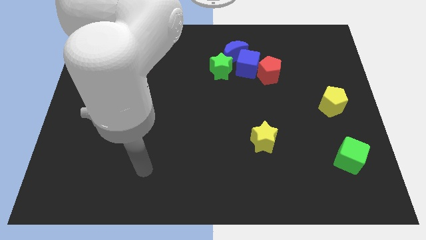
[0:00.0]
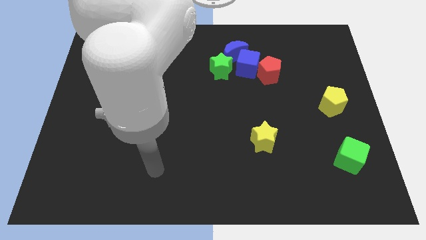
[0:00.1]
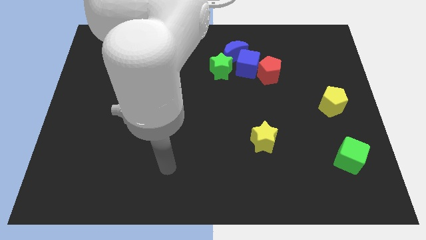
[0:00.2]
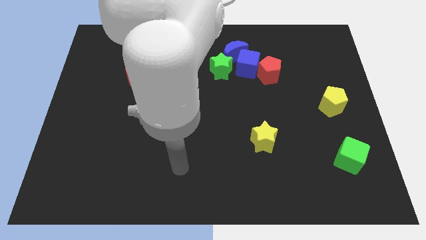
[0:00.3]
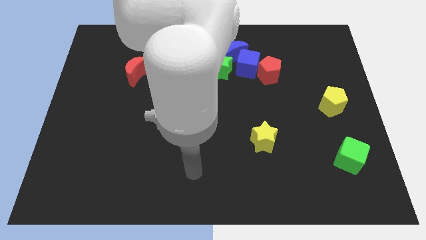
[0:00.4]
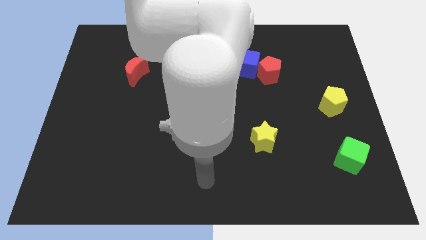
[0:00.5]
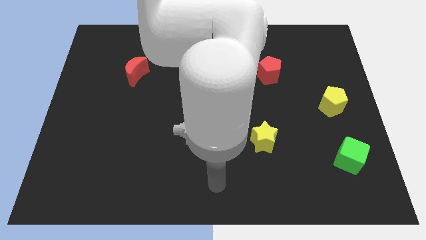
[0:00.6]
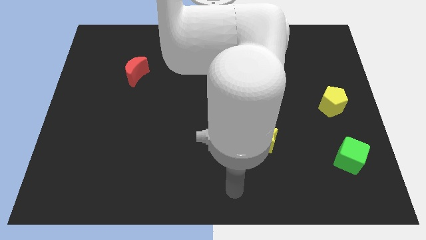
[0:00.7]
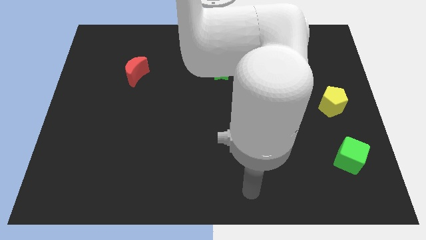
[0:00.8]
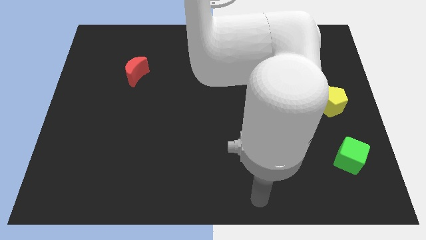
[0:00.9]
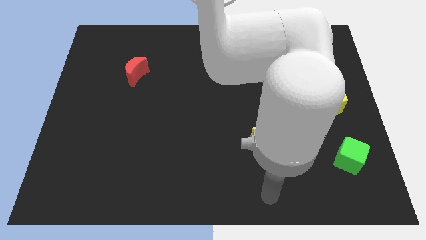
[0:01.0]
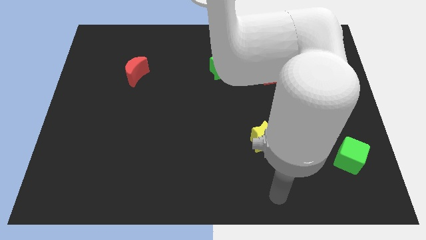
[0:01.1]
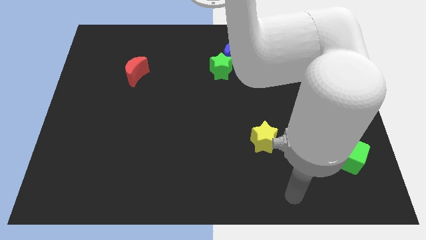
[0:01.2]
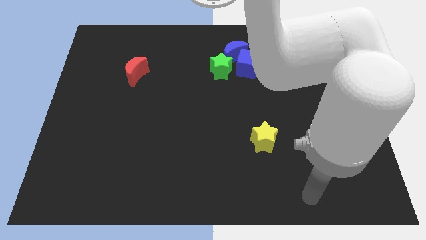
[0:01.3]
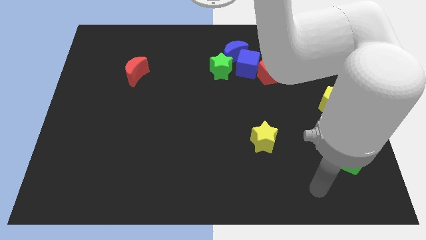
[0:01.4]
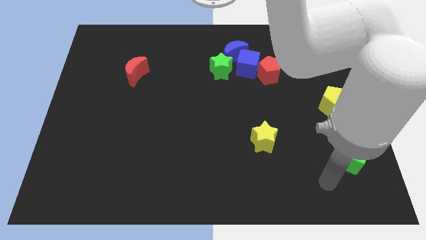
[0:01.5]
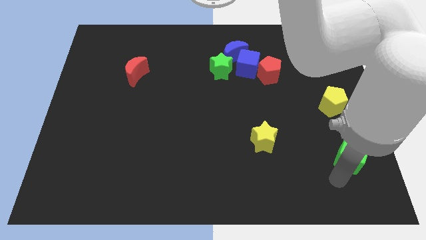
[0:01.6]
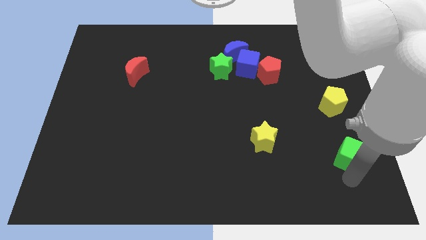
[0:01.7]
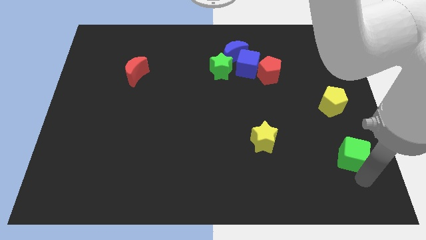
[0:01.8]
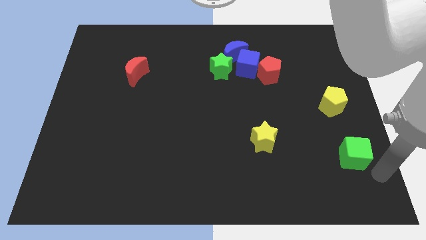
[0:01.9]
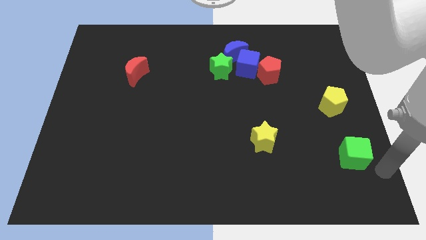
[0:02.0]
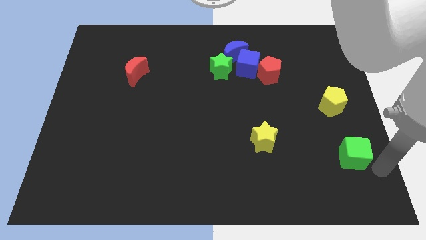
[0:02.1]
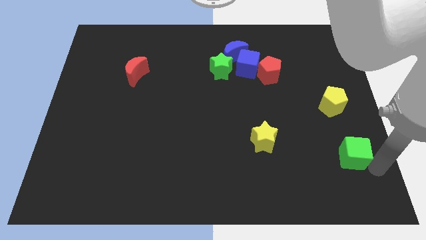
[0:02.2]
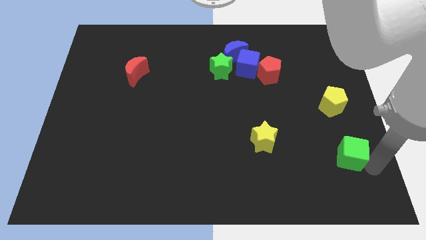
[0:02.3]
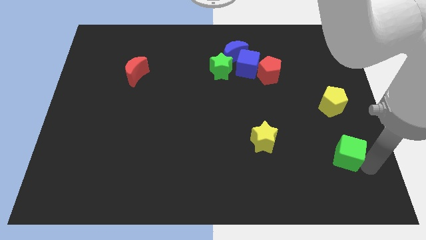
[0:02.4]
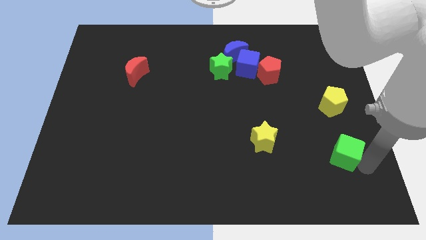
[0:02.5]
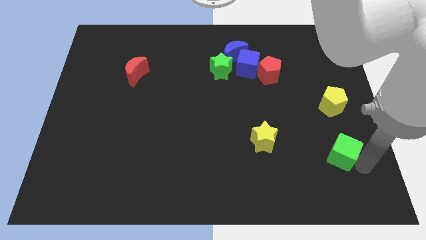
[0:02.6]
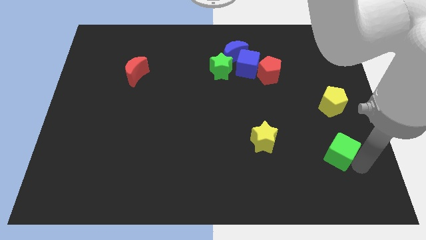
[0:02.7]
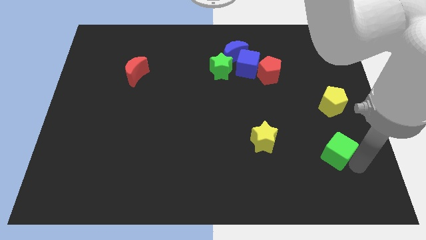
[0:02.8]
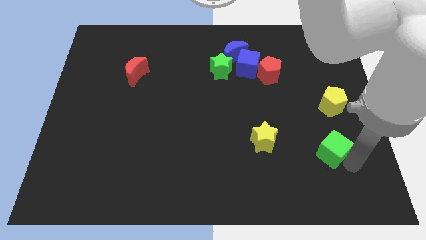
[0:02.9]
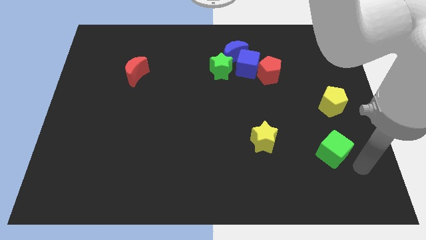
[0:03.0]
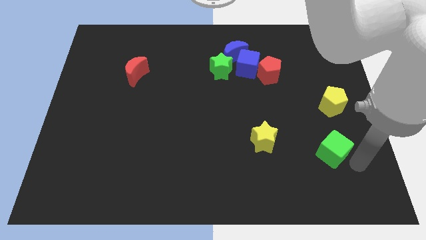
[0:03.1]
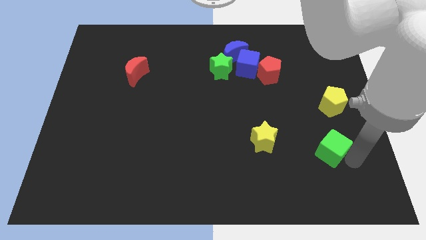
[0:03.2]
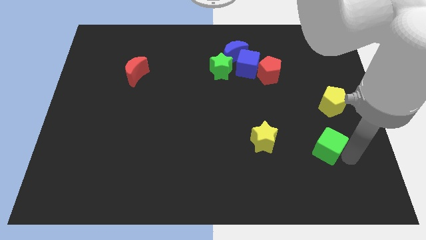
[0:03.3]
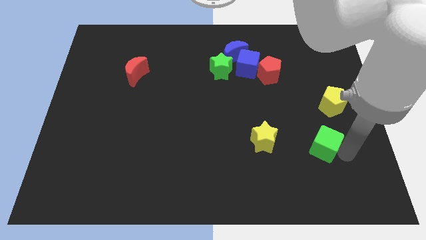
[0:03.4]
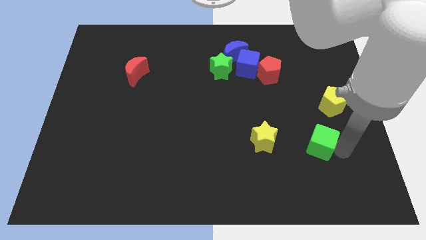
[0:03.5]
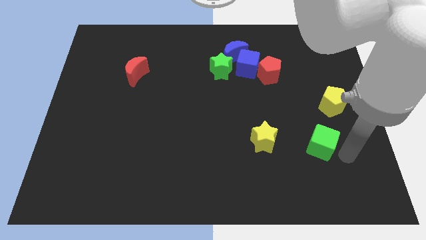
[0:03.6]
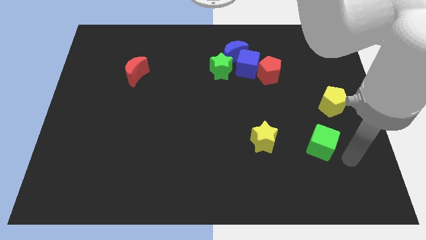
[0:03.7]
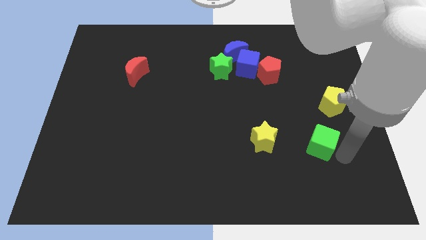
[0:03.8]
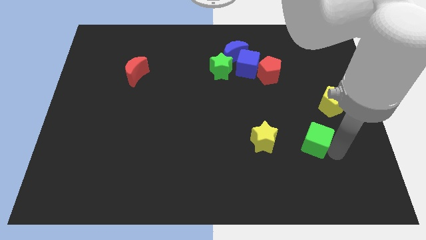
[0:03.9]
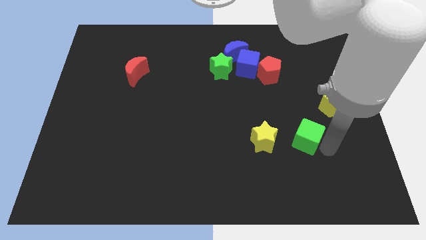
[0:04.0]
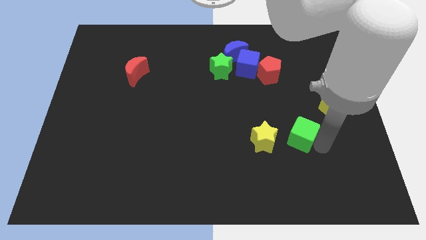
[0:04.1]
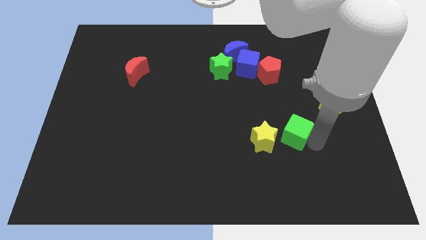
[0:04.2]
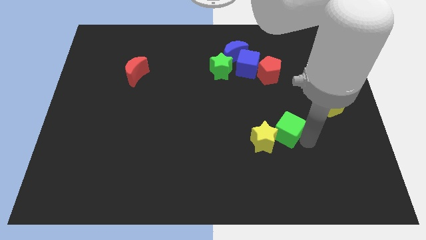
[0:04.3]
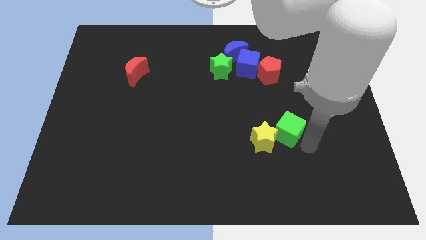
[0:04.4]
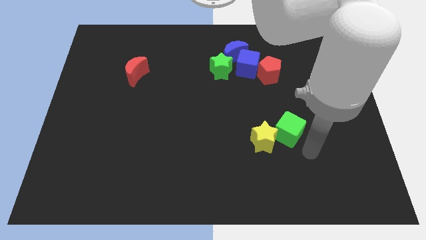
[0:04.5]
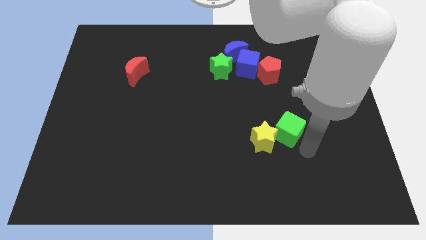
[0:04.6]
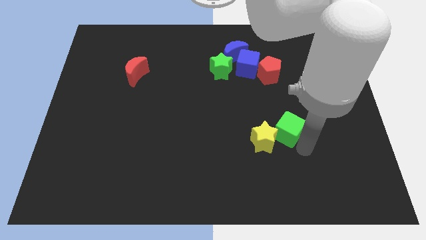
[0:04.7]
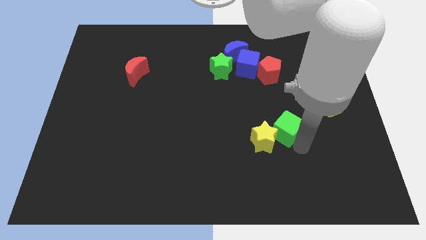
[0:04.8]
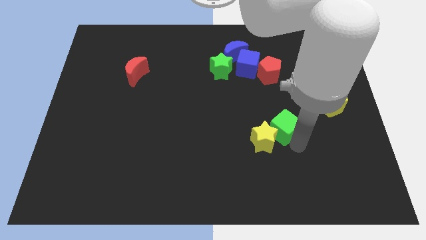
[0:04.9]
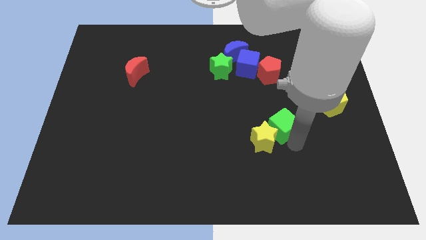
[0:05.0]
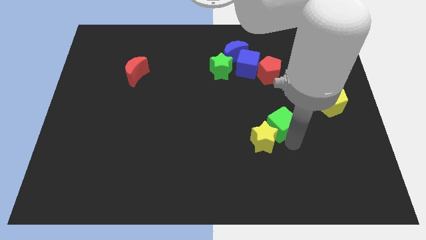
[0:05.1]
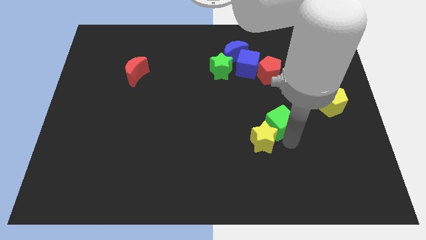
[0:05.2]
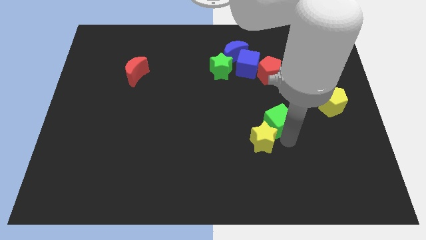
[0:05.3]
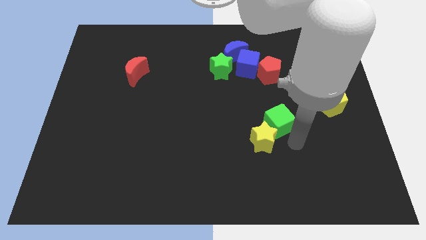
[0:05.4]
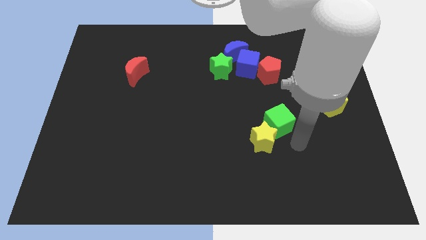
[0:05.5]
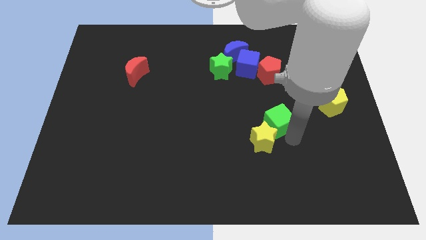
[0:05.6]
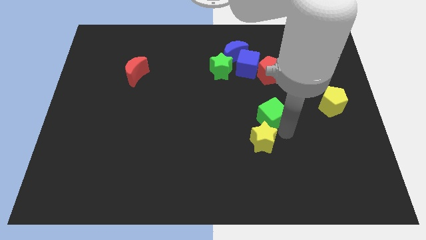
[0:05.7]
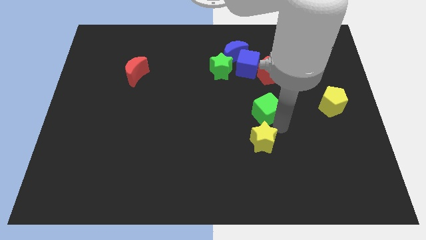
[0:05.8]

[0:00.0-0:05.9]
push the green cube diagonally up and left

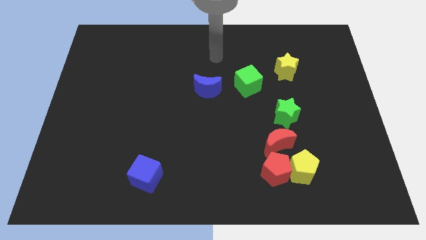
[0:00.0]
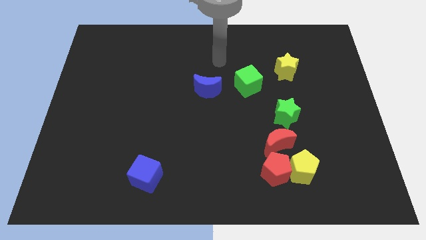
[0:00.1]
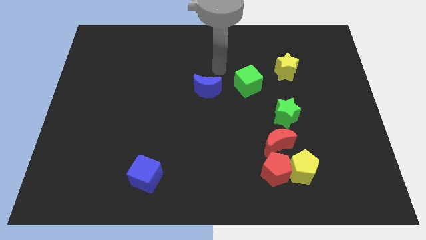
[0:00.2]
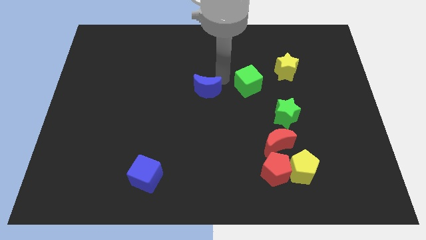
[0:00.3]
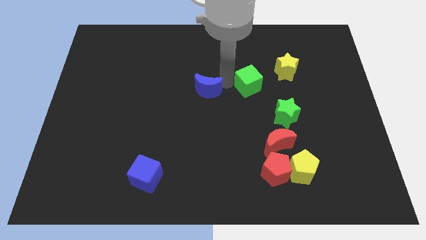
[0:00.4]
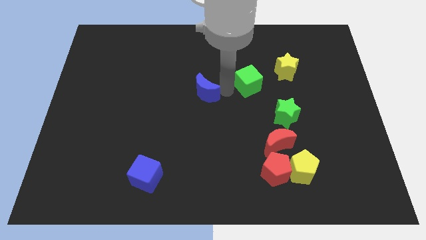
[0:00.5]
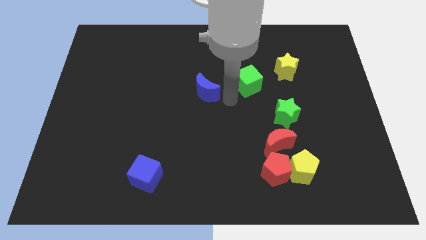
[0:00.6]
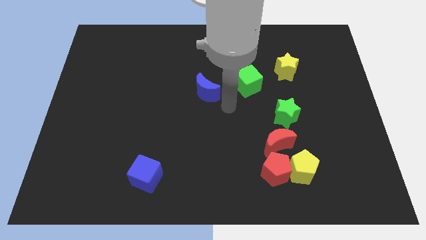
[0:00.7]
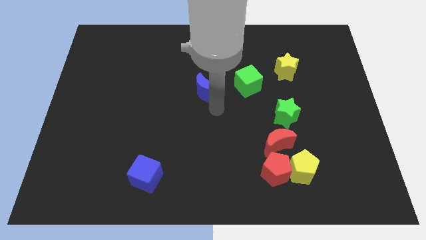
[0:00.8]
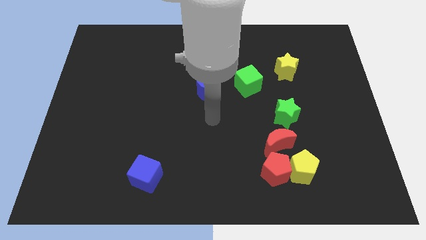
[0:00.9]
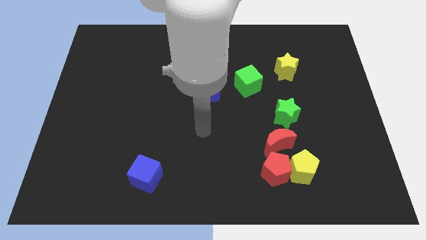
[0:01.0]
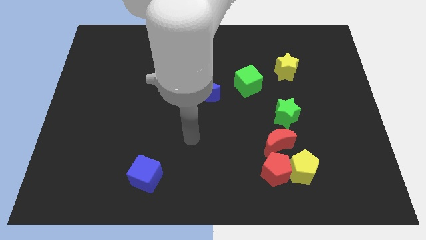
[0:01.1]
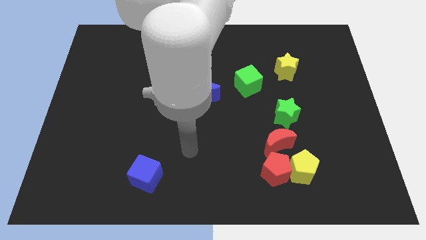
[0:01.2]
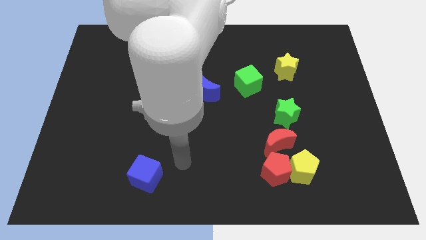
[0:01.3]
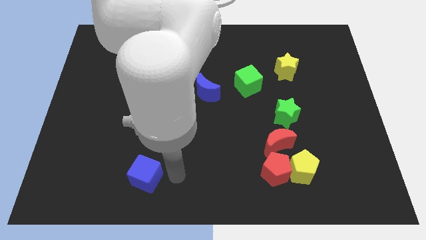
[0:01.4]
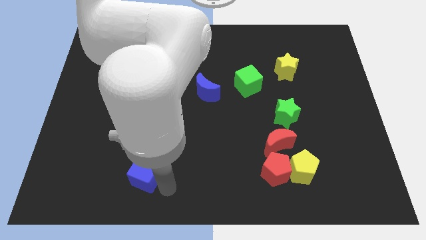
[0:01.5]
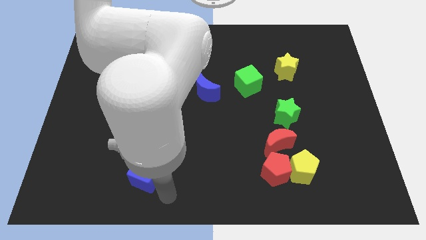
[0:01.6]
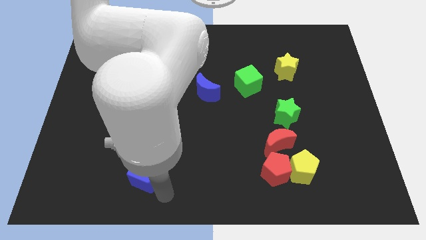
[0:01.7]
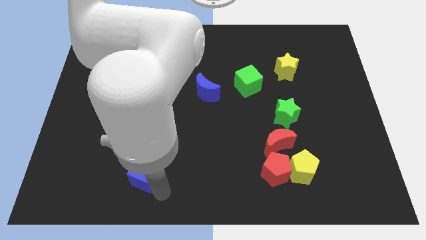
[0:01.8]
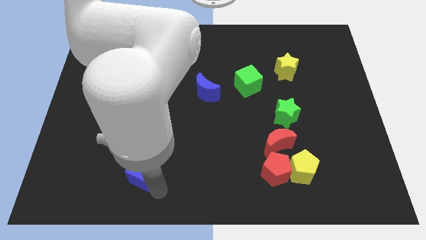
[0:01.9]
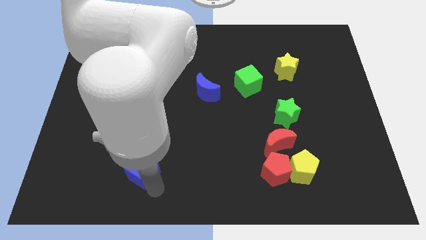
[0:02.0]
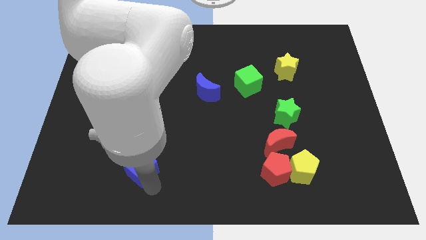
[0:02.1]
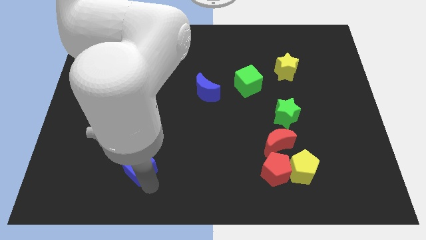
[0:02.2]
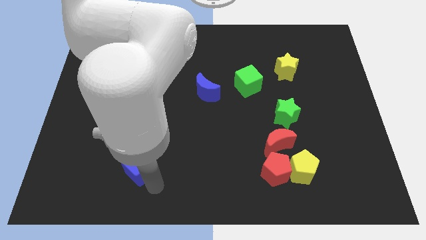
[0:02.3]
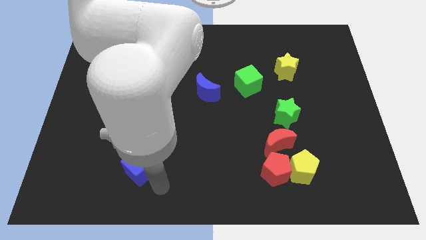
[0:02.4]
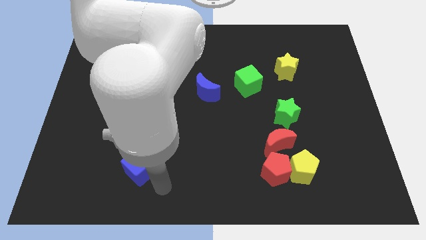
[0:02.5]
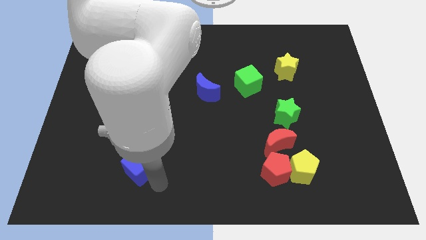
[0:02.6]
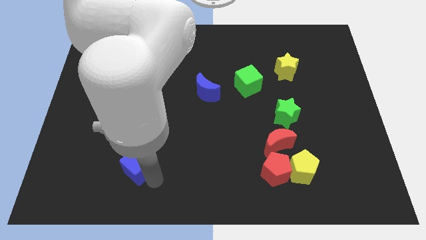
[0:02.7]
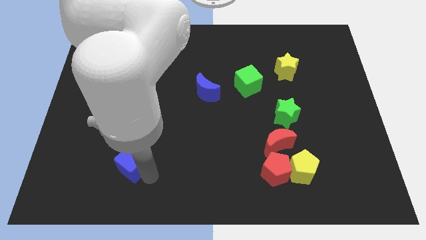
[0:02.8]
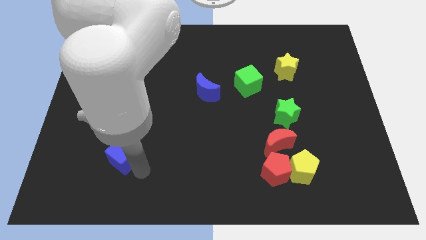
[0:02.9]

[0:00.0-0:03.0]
slide the blue cube a bit up and left
